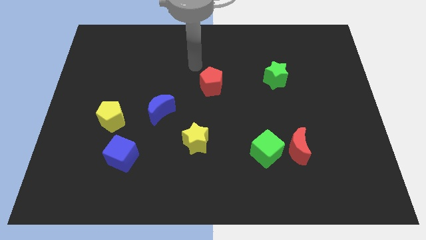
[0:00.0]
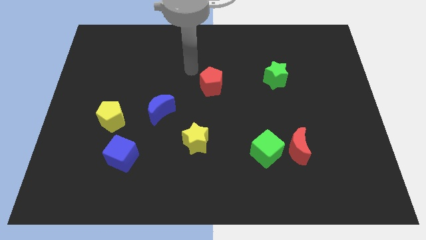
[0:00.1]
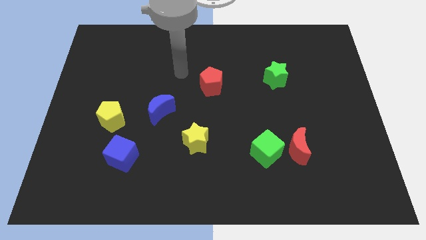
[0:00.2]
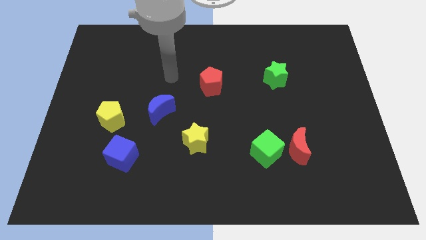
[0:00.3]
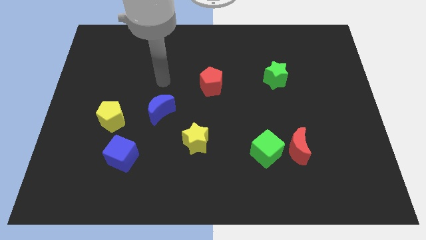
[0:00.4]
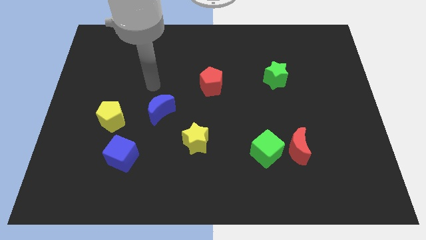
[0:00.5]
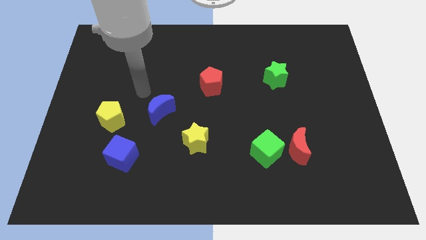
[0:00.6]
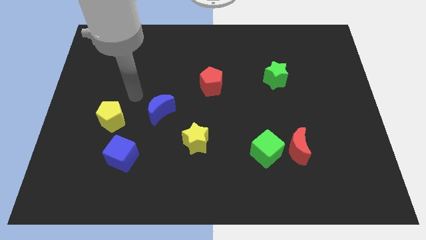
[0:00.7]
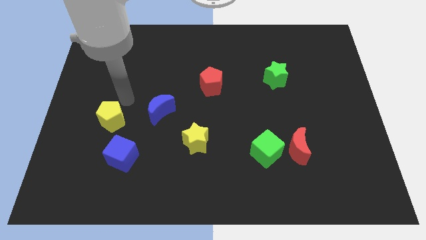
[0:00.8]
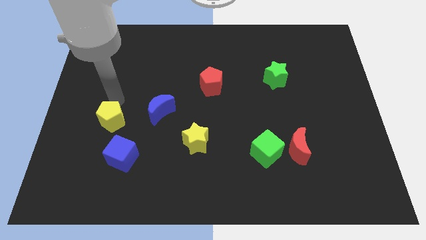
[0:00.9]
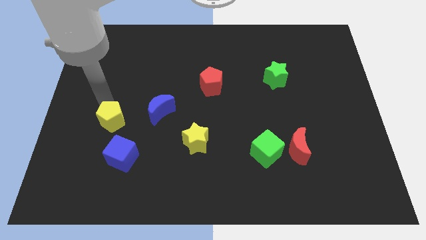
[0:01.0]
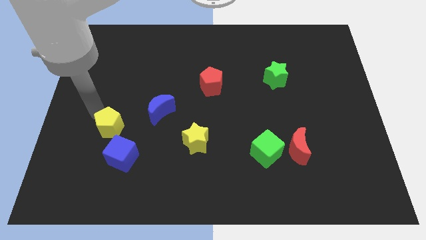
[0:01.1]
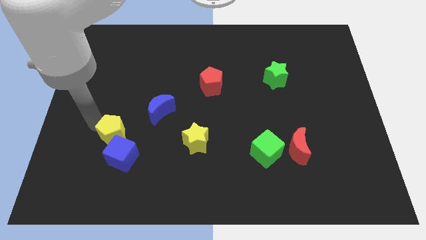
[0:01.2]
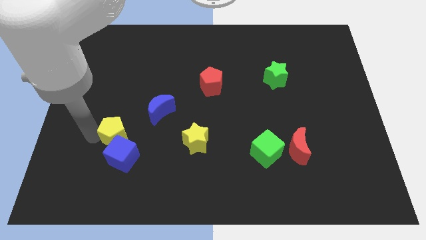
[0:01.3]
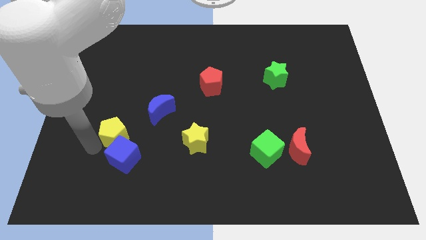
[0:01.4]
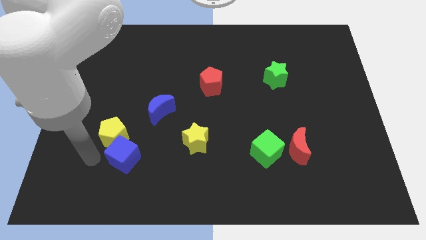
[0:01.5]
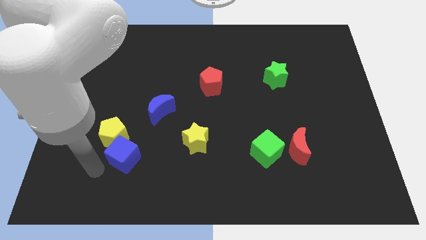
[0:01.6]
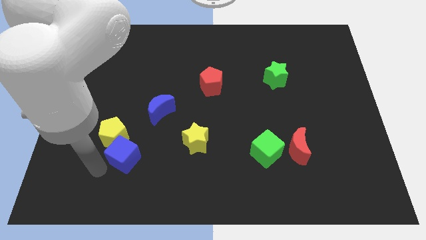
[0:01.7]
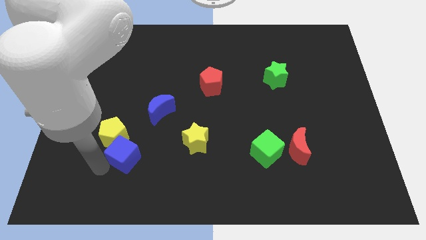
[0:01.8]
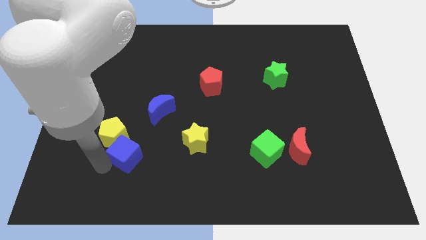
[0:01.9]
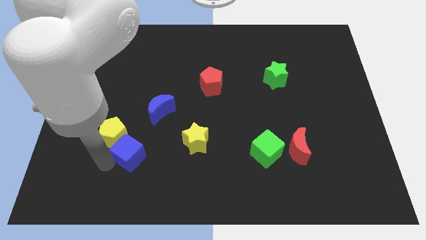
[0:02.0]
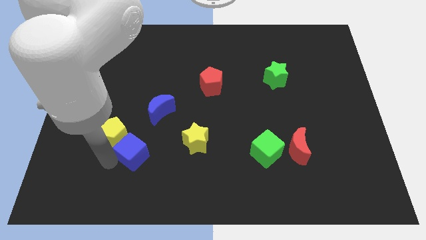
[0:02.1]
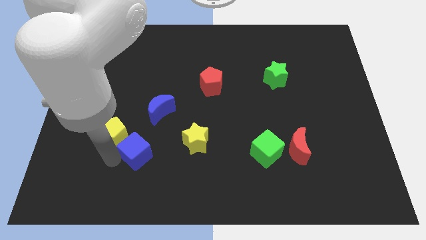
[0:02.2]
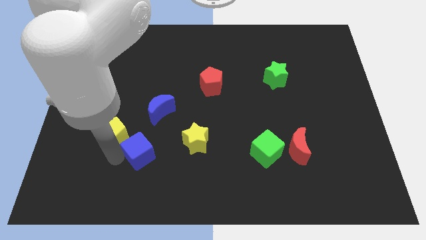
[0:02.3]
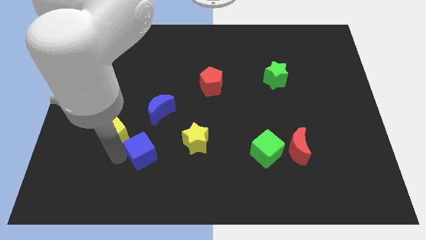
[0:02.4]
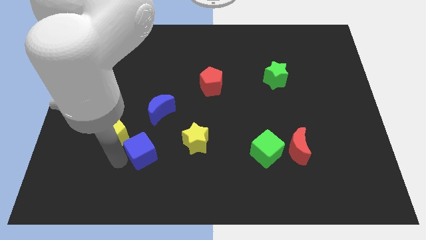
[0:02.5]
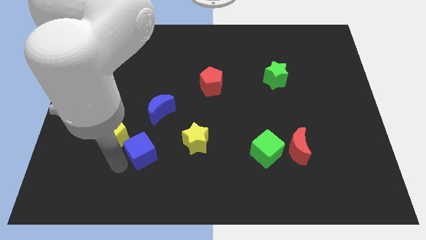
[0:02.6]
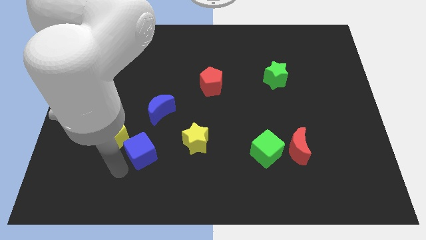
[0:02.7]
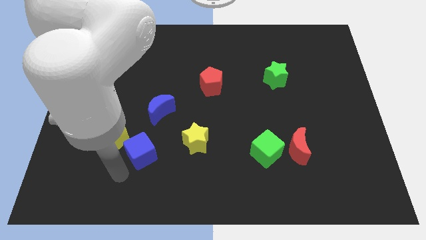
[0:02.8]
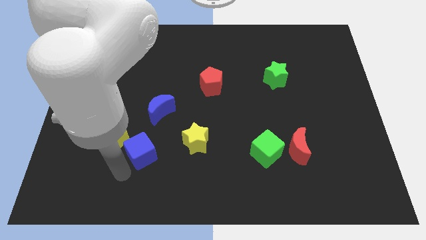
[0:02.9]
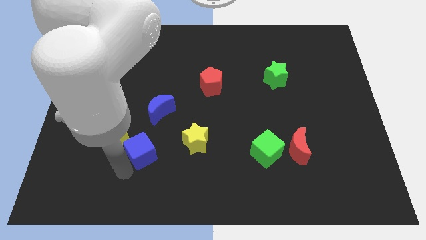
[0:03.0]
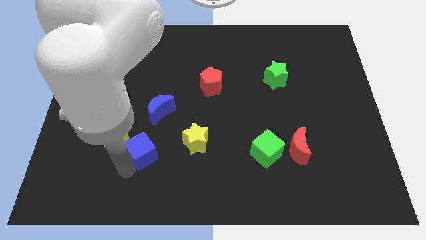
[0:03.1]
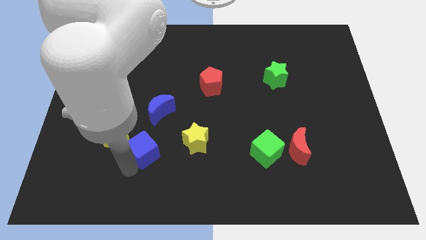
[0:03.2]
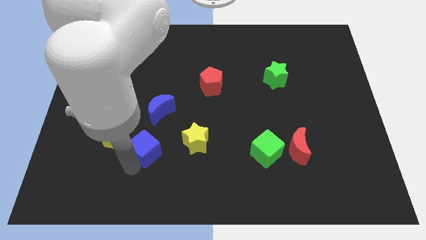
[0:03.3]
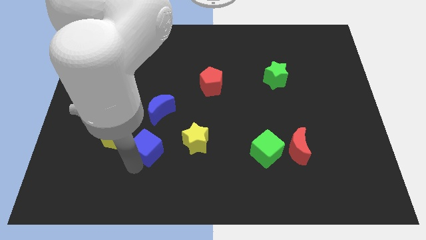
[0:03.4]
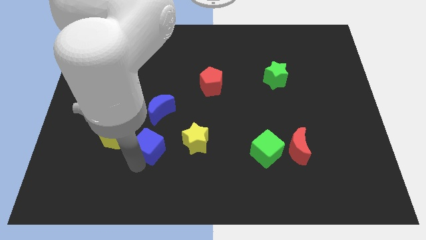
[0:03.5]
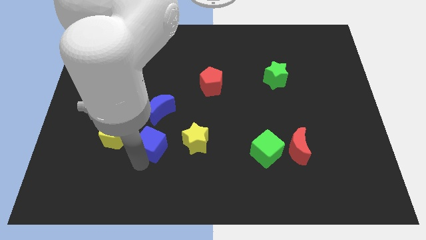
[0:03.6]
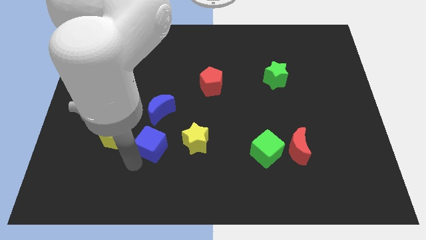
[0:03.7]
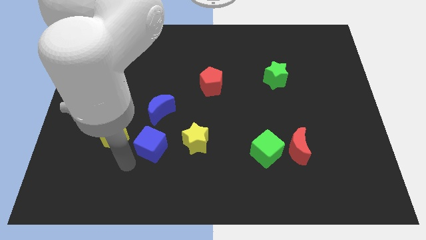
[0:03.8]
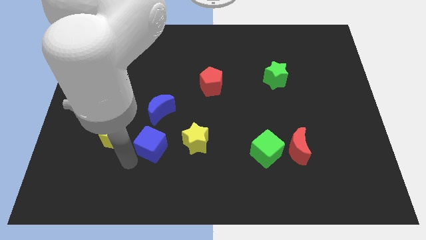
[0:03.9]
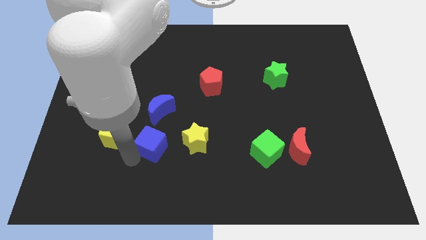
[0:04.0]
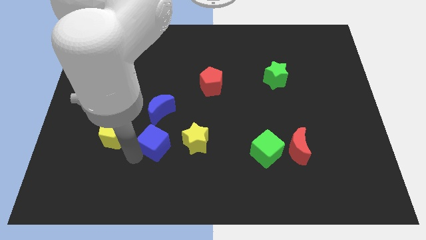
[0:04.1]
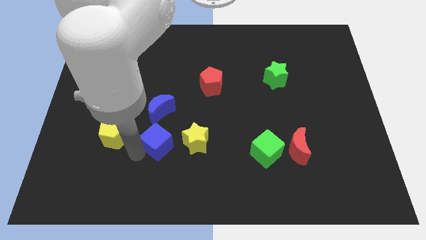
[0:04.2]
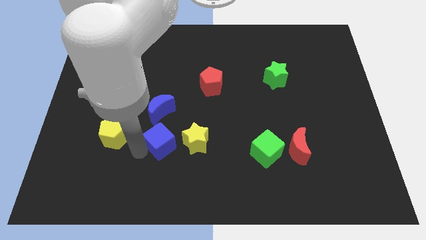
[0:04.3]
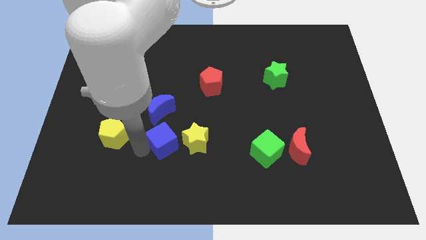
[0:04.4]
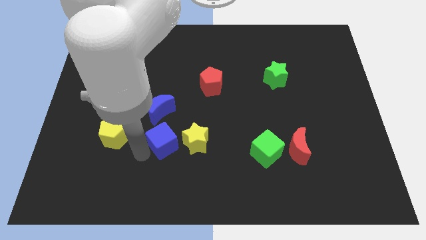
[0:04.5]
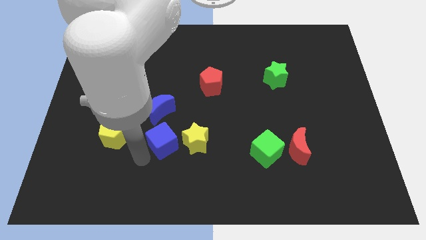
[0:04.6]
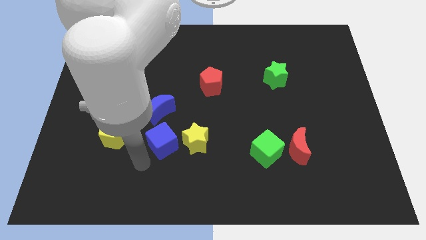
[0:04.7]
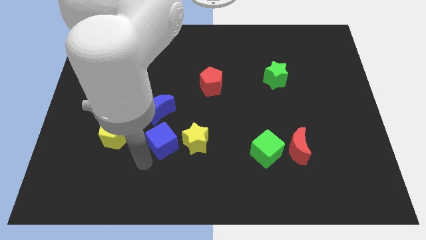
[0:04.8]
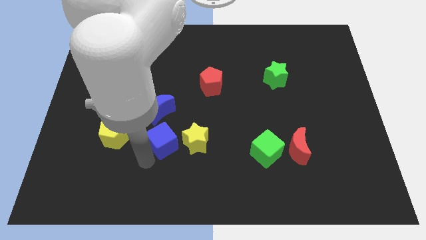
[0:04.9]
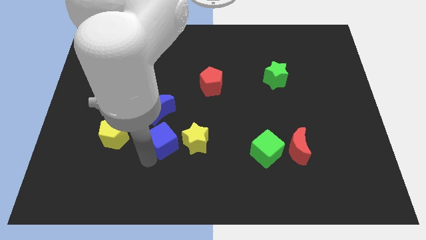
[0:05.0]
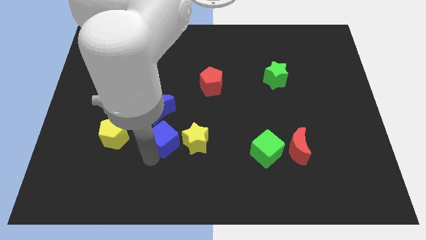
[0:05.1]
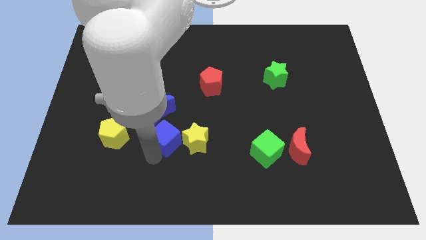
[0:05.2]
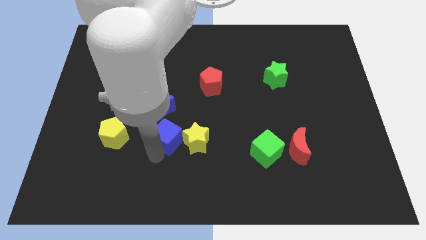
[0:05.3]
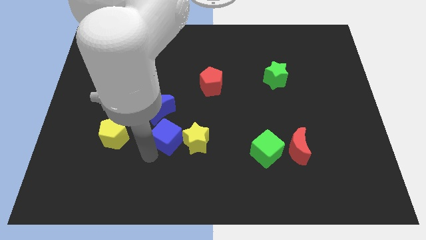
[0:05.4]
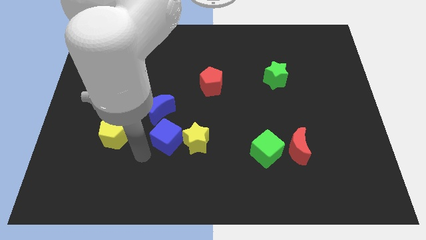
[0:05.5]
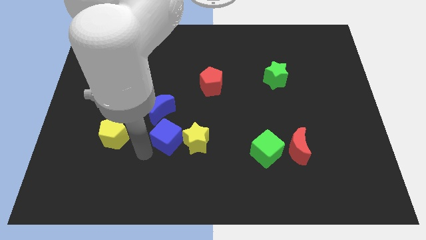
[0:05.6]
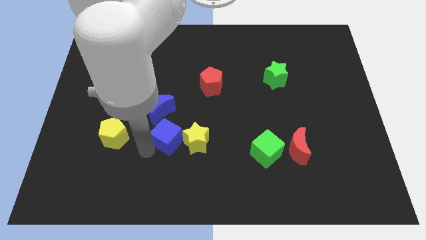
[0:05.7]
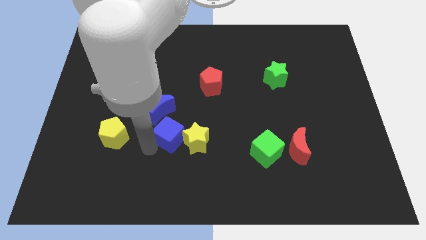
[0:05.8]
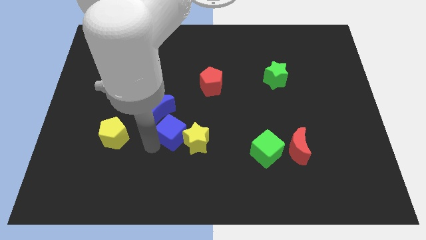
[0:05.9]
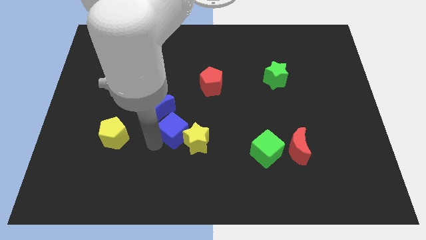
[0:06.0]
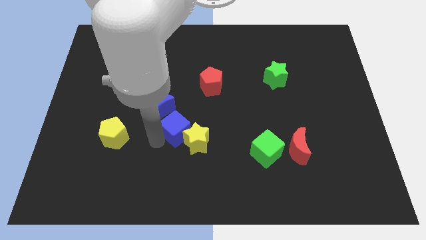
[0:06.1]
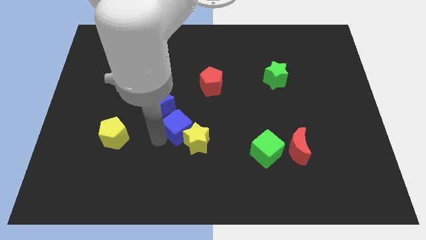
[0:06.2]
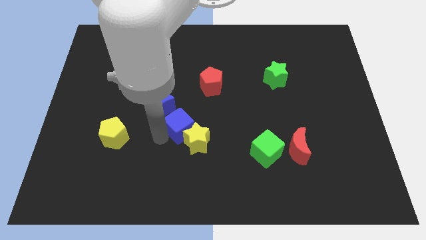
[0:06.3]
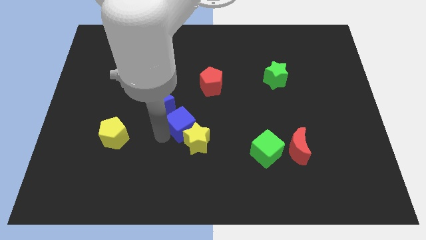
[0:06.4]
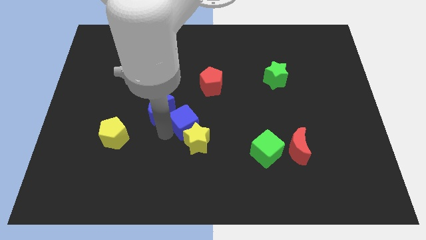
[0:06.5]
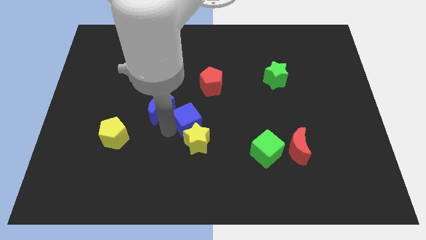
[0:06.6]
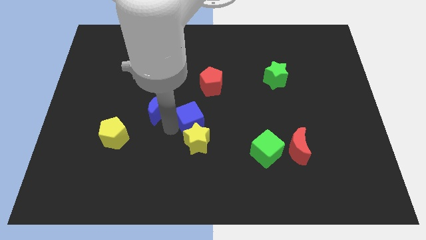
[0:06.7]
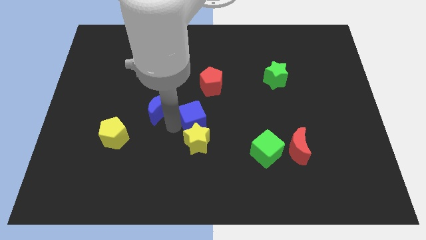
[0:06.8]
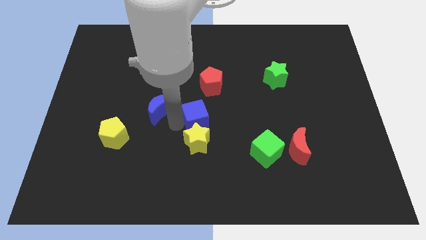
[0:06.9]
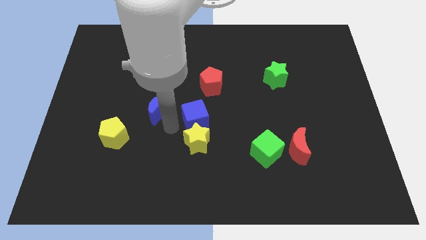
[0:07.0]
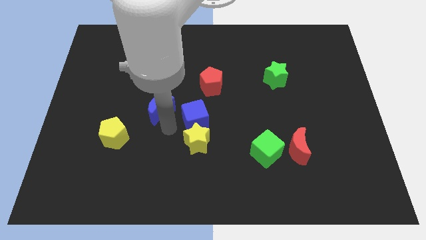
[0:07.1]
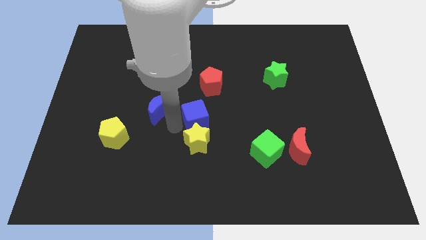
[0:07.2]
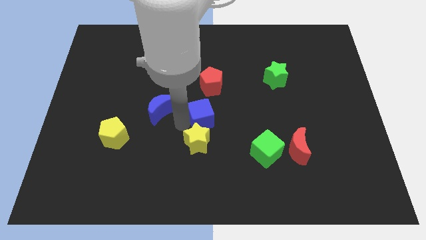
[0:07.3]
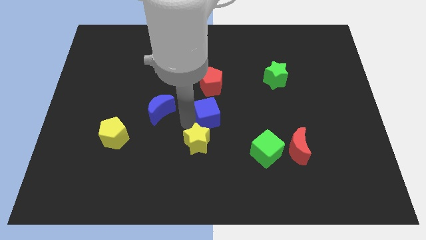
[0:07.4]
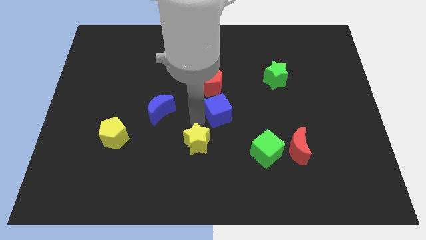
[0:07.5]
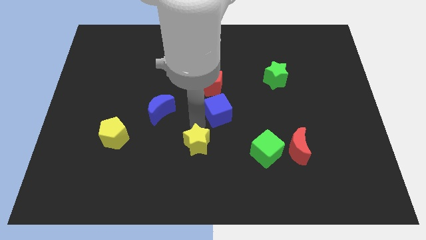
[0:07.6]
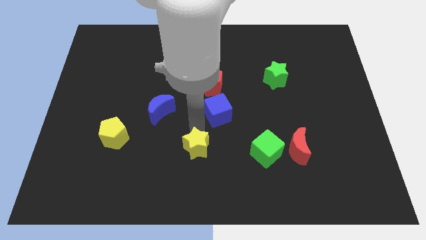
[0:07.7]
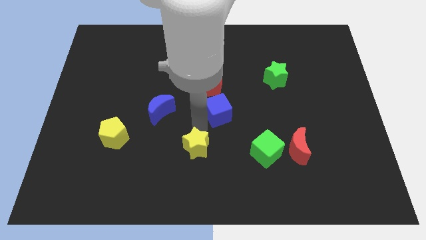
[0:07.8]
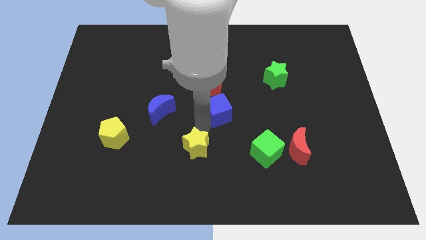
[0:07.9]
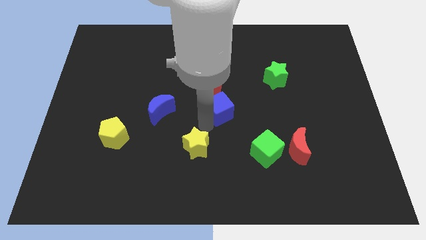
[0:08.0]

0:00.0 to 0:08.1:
push the blue cube diagonally down and to the right of the red pentagon
